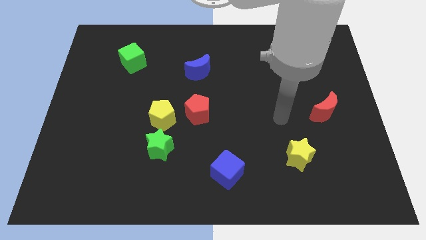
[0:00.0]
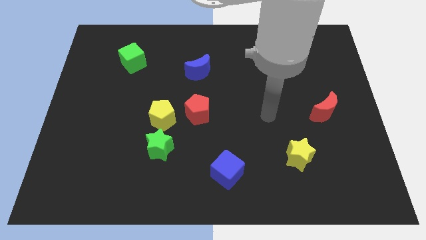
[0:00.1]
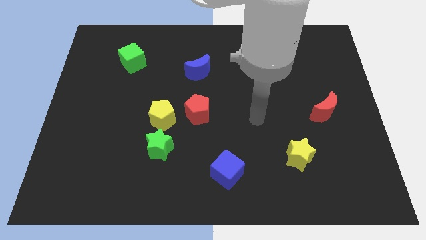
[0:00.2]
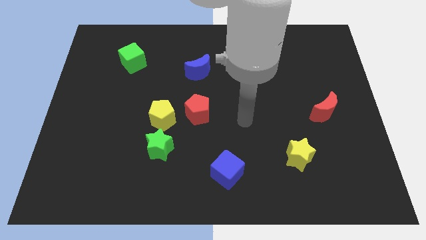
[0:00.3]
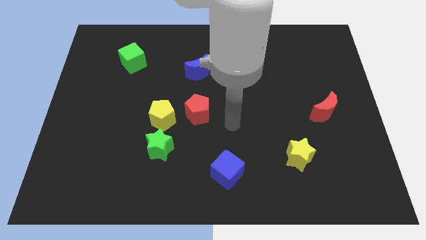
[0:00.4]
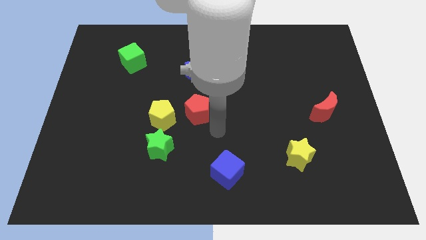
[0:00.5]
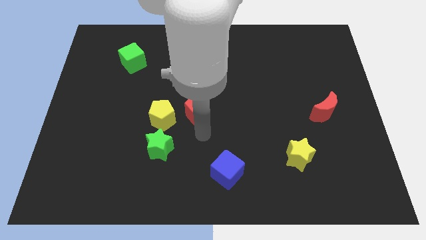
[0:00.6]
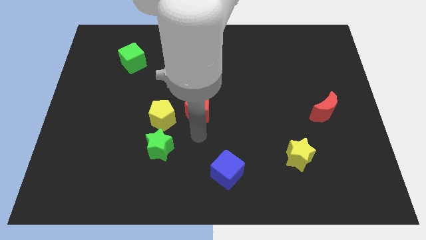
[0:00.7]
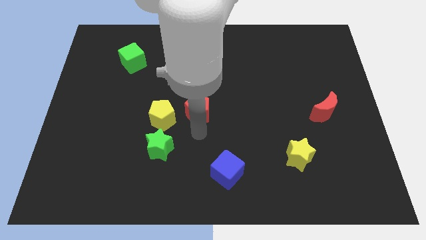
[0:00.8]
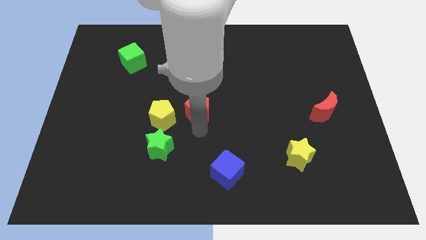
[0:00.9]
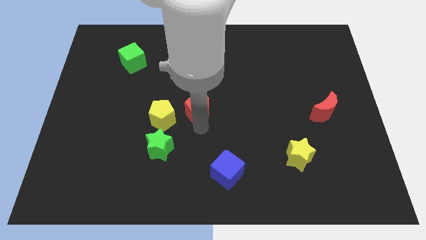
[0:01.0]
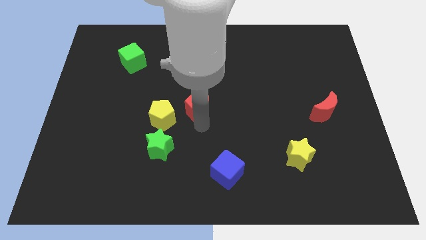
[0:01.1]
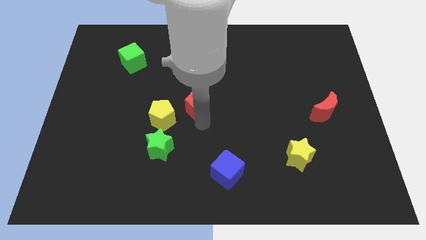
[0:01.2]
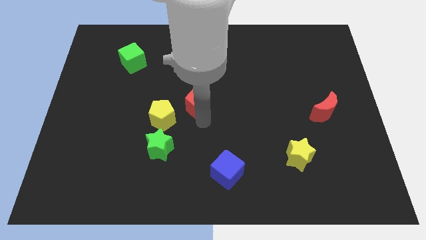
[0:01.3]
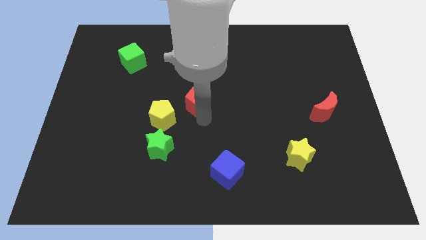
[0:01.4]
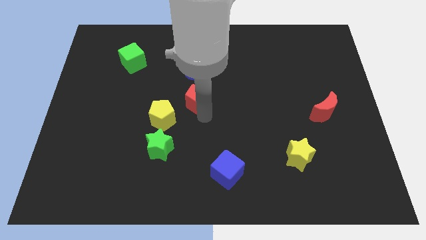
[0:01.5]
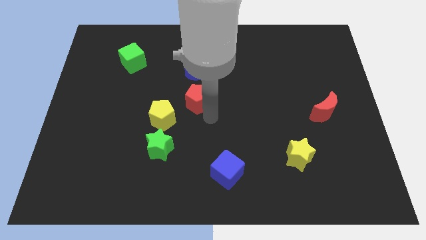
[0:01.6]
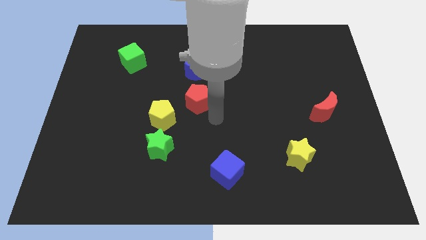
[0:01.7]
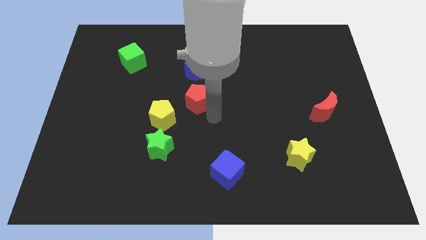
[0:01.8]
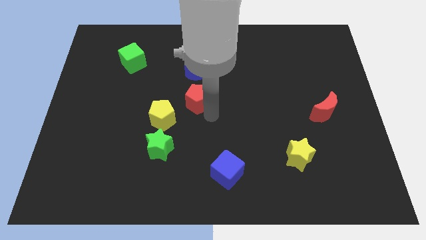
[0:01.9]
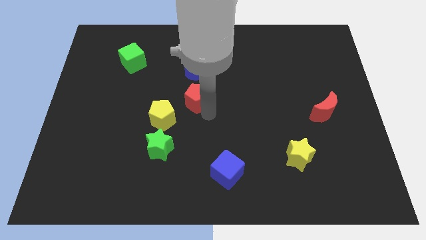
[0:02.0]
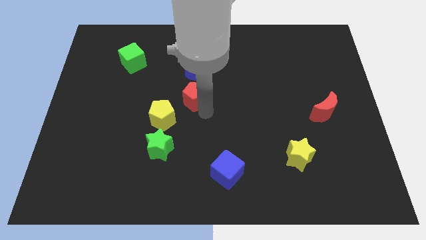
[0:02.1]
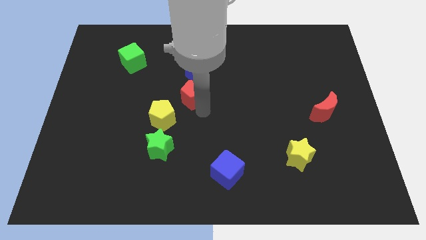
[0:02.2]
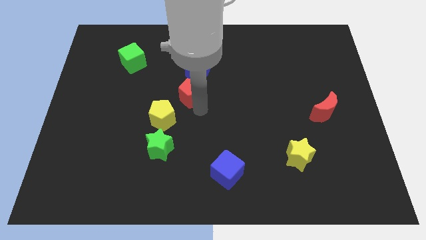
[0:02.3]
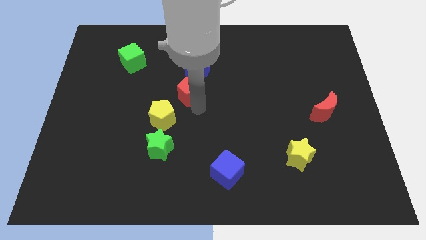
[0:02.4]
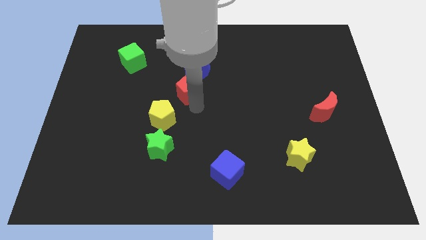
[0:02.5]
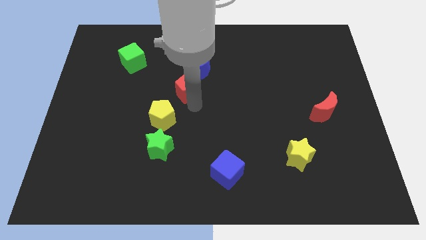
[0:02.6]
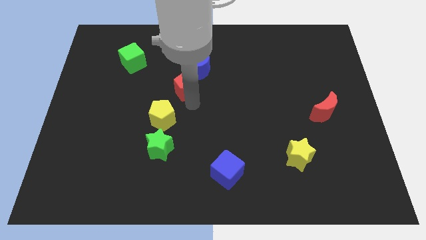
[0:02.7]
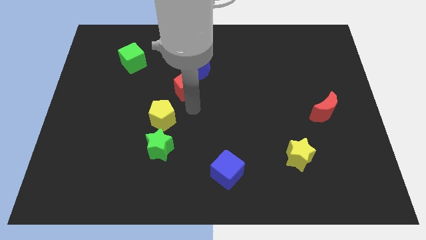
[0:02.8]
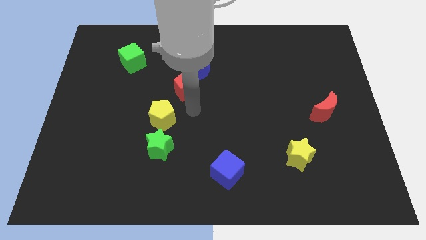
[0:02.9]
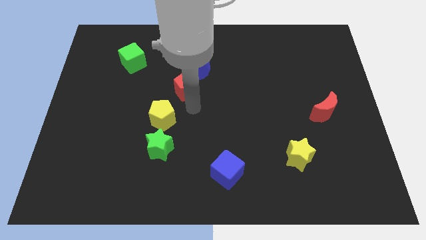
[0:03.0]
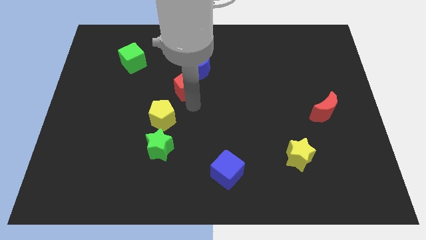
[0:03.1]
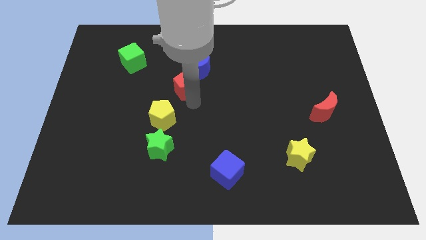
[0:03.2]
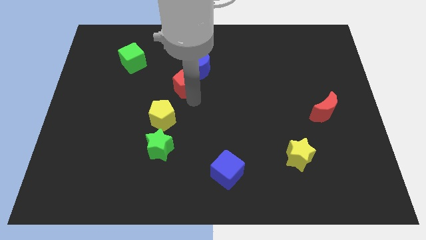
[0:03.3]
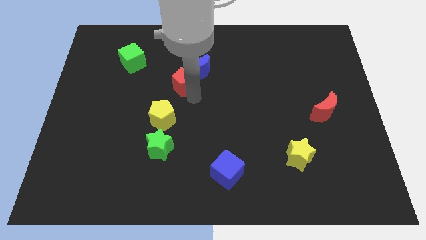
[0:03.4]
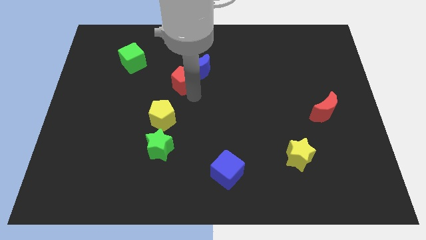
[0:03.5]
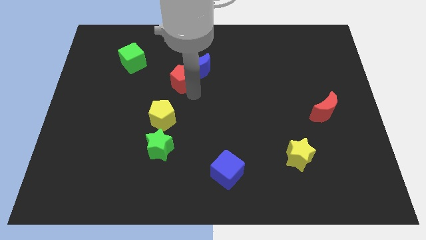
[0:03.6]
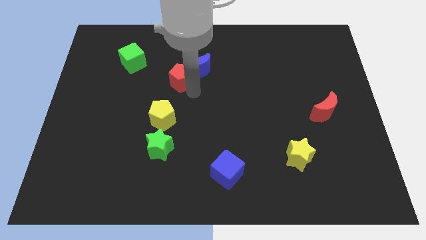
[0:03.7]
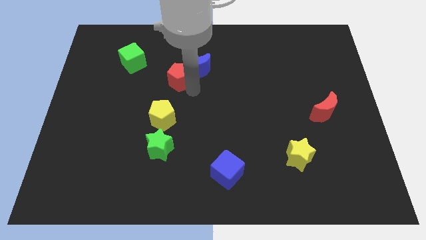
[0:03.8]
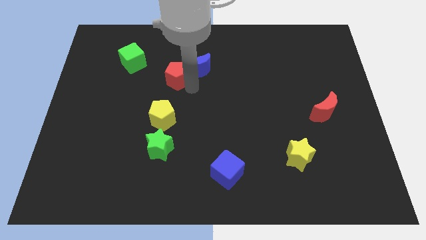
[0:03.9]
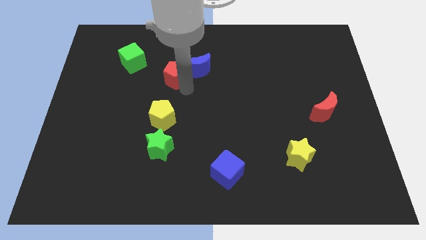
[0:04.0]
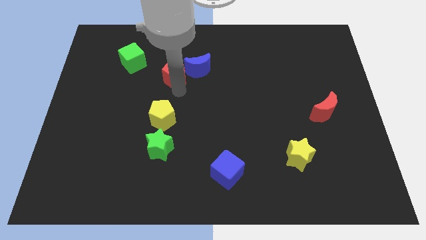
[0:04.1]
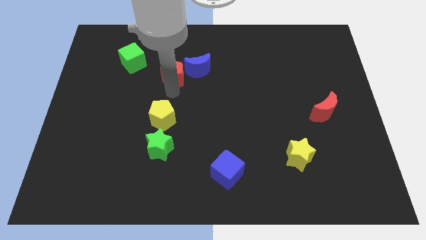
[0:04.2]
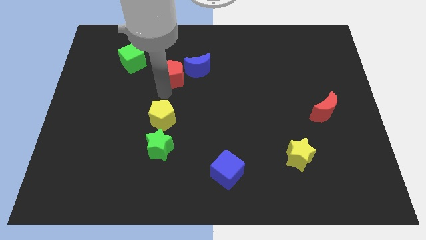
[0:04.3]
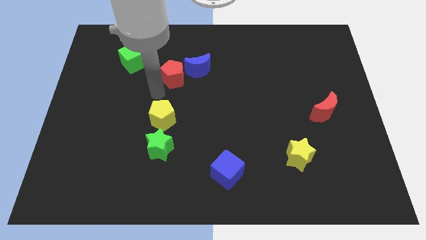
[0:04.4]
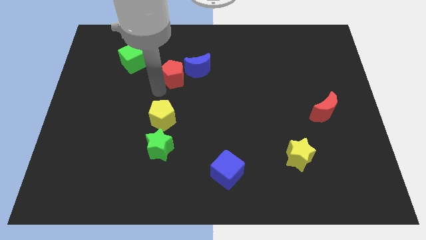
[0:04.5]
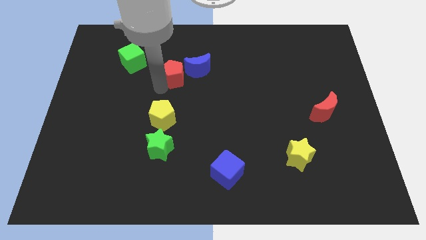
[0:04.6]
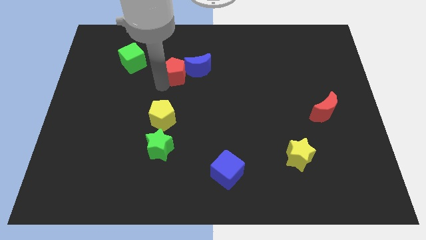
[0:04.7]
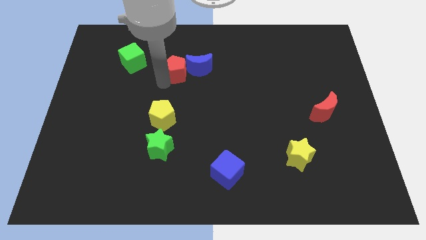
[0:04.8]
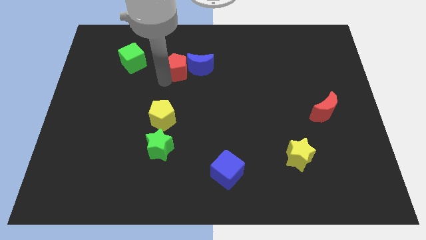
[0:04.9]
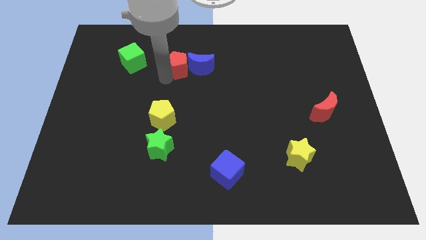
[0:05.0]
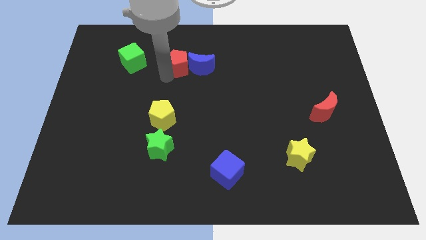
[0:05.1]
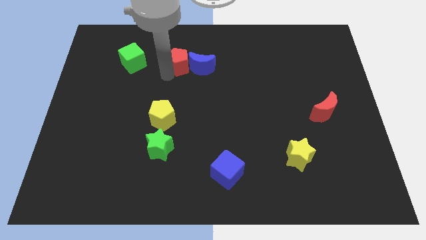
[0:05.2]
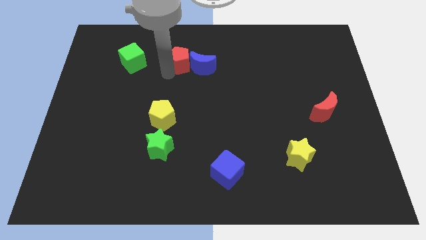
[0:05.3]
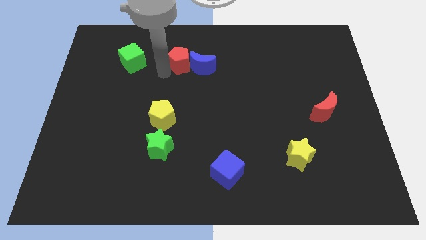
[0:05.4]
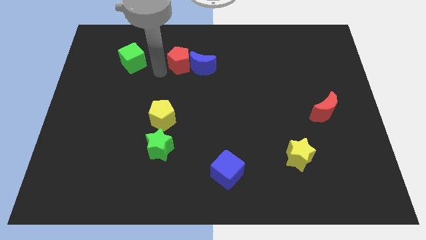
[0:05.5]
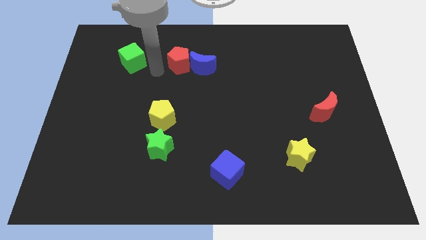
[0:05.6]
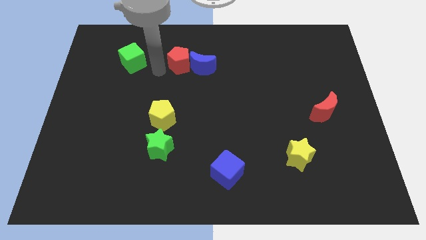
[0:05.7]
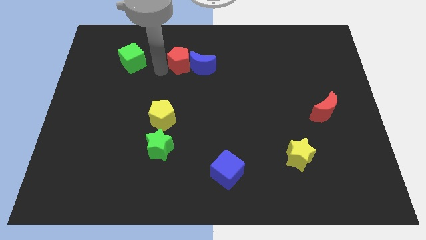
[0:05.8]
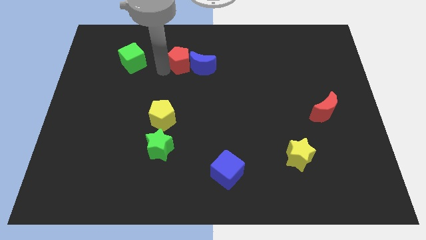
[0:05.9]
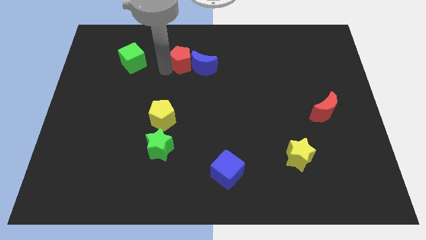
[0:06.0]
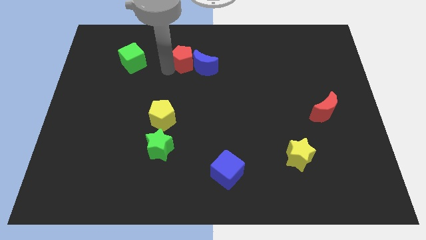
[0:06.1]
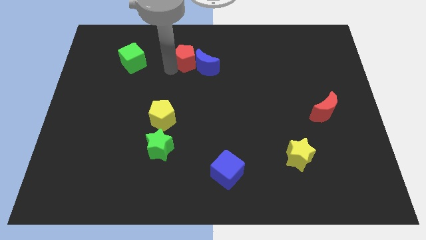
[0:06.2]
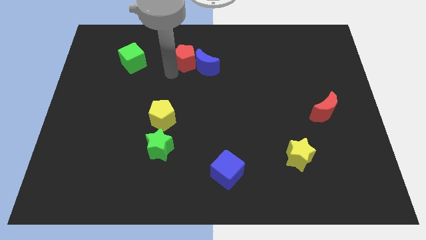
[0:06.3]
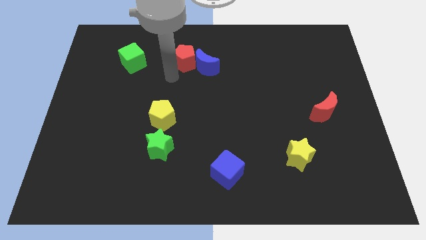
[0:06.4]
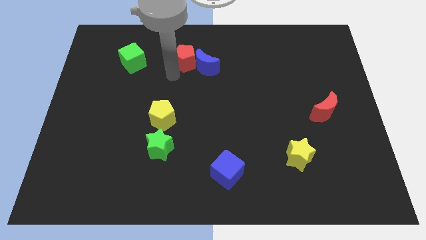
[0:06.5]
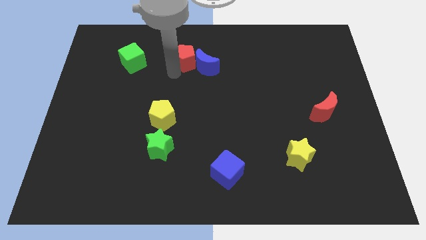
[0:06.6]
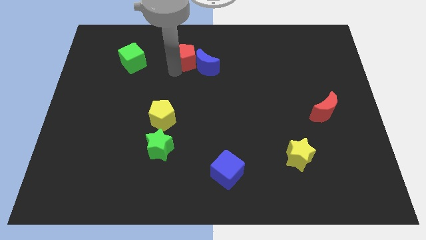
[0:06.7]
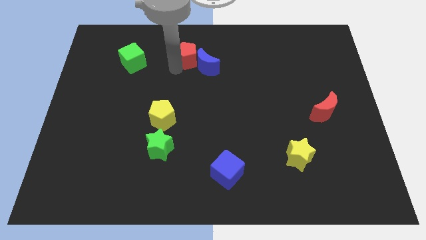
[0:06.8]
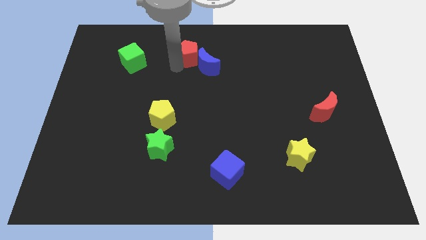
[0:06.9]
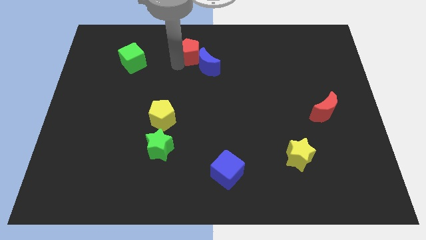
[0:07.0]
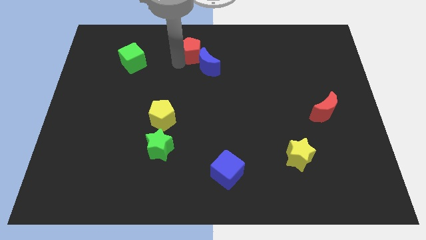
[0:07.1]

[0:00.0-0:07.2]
put the red pentagon to the top
